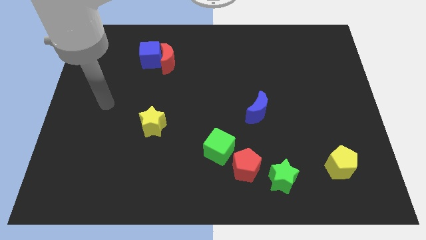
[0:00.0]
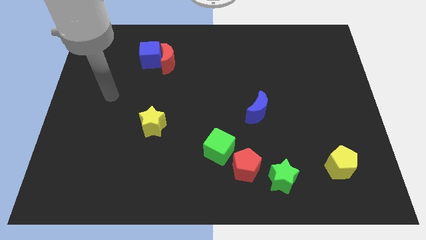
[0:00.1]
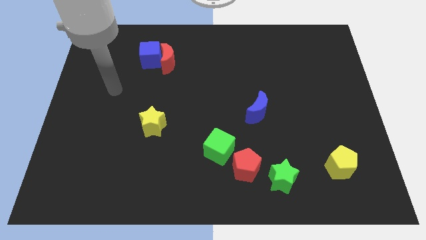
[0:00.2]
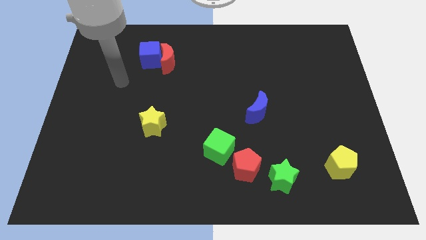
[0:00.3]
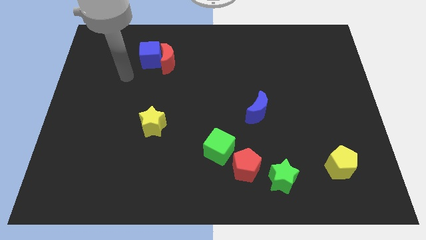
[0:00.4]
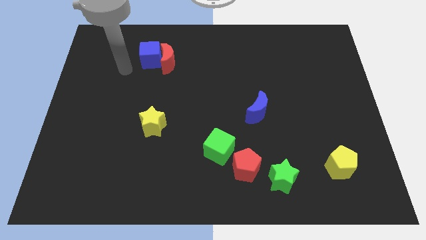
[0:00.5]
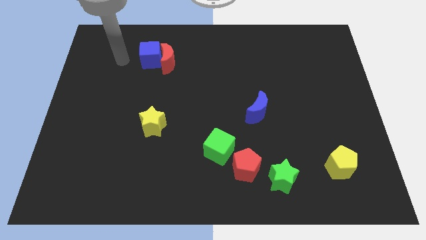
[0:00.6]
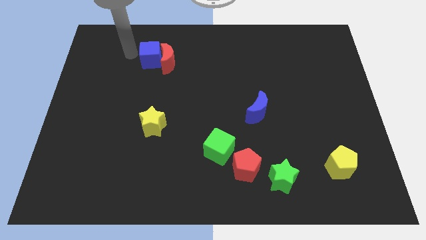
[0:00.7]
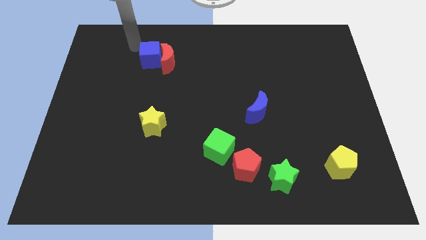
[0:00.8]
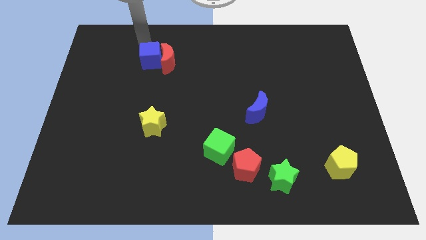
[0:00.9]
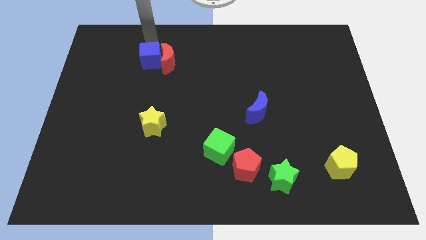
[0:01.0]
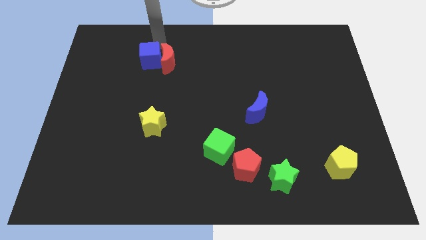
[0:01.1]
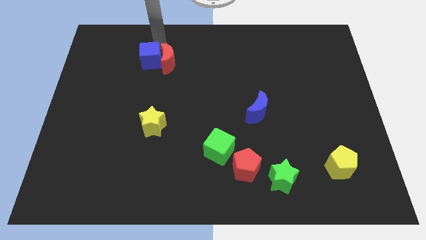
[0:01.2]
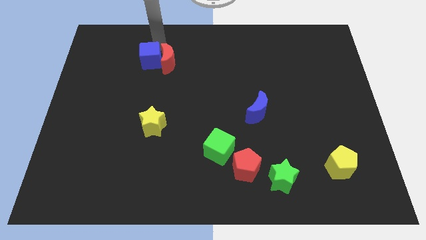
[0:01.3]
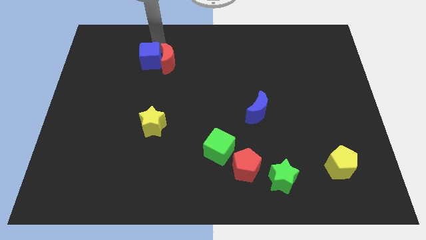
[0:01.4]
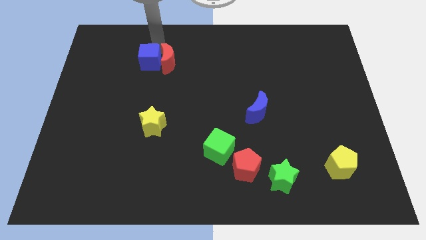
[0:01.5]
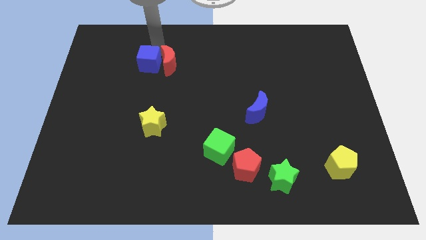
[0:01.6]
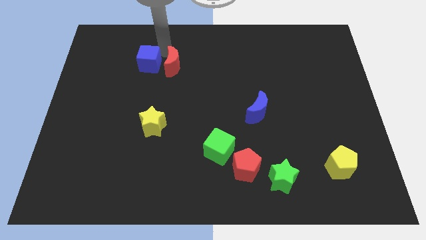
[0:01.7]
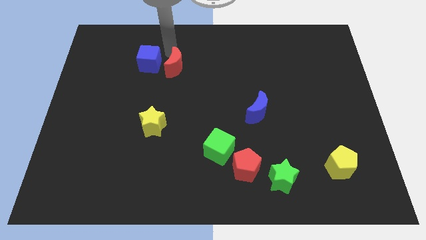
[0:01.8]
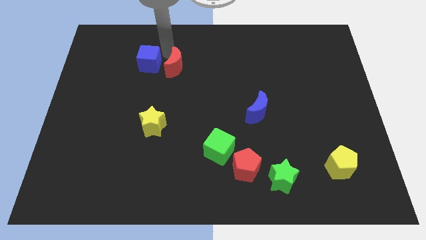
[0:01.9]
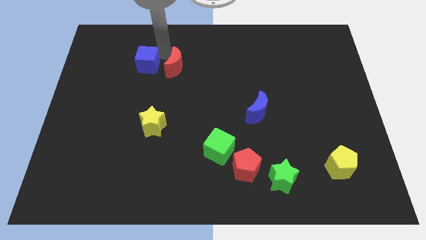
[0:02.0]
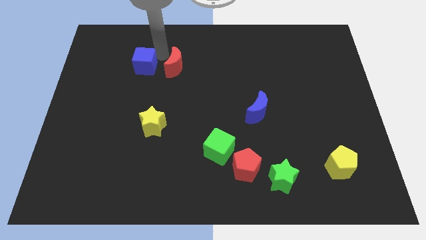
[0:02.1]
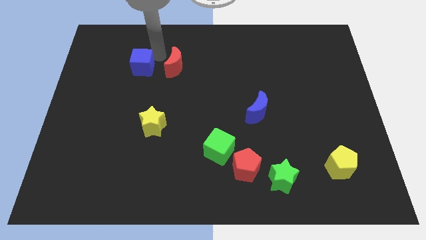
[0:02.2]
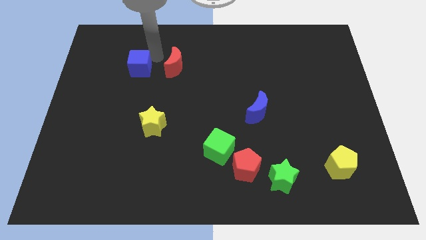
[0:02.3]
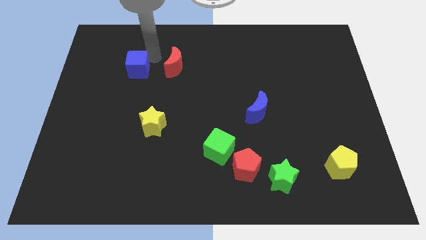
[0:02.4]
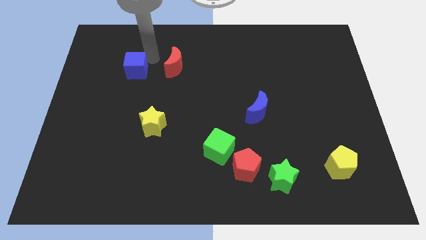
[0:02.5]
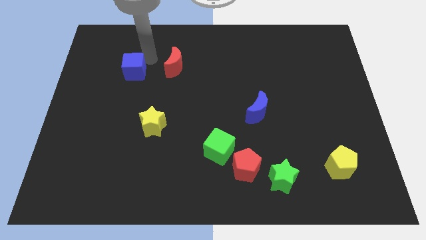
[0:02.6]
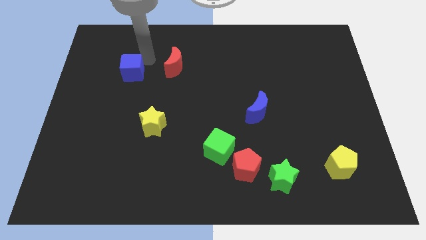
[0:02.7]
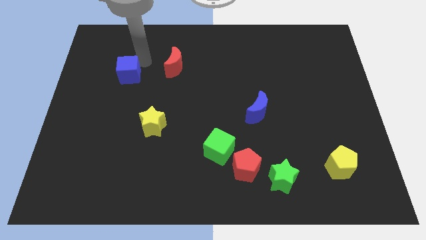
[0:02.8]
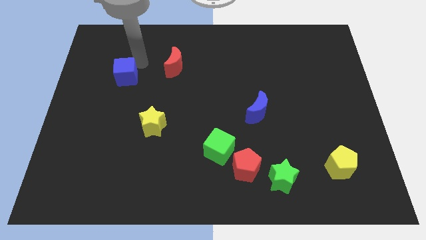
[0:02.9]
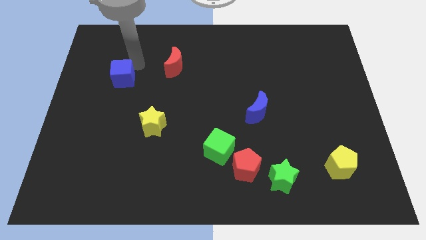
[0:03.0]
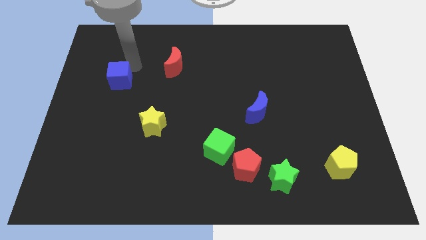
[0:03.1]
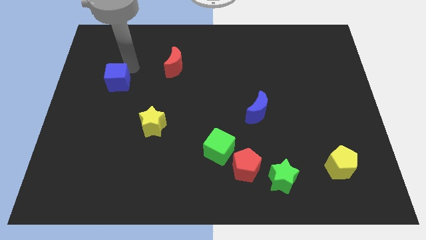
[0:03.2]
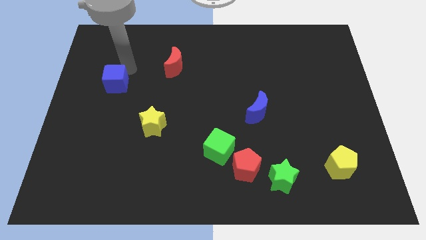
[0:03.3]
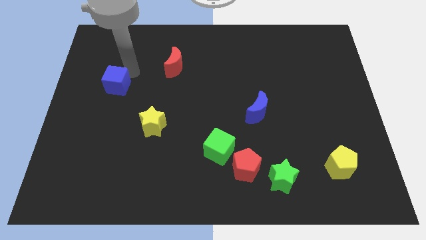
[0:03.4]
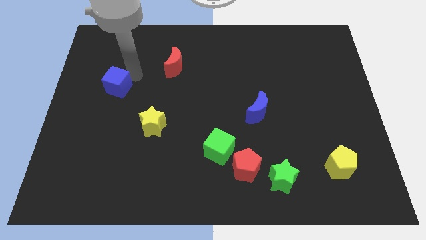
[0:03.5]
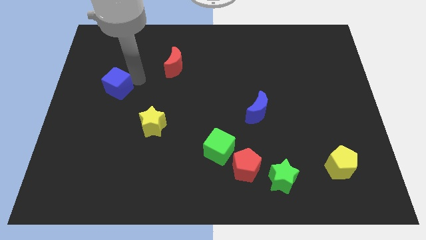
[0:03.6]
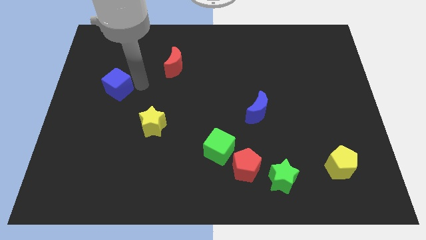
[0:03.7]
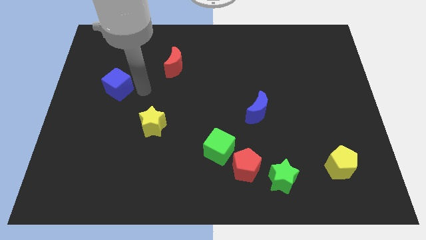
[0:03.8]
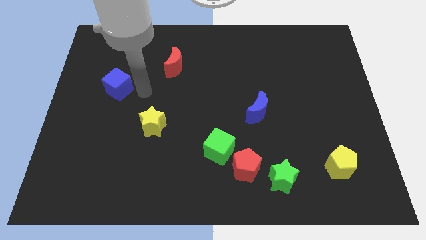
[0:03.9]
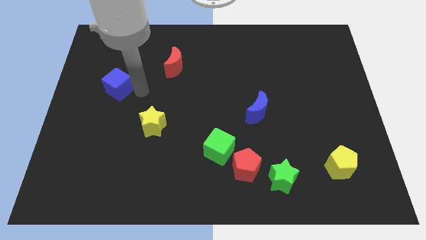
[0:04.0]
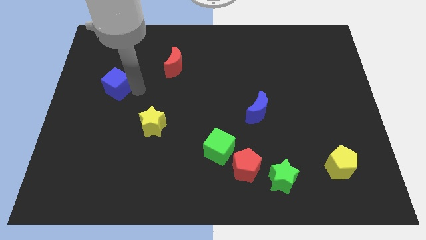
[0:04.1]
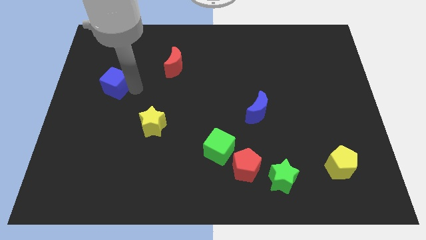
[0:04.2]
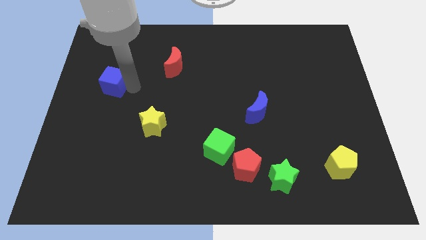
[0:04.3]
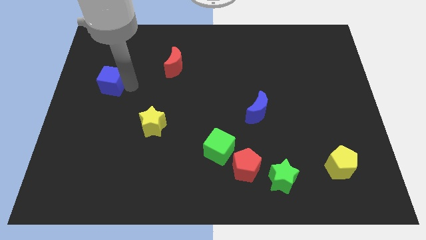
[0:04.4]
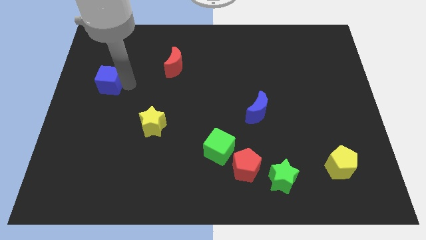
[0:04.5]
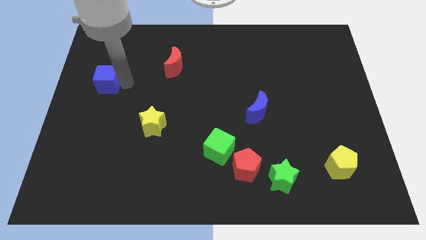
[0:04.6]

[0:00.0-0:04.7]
push the blue cube to the left side

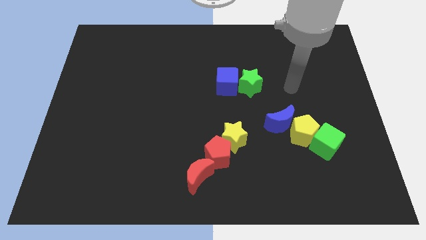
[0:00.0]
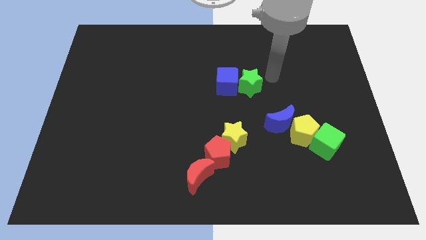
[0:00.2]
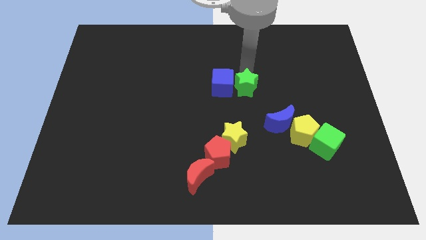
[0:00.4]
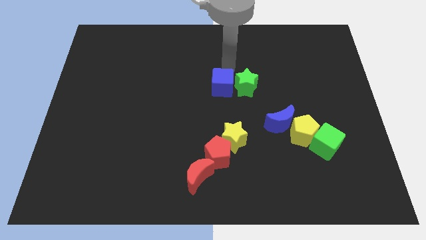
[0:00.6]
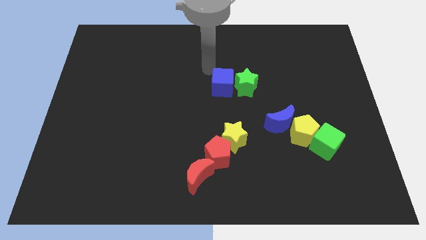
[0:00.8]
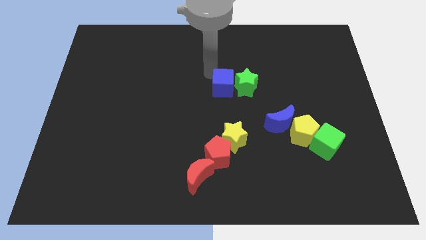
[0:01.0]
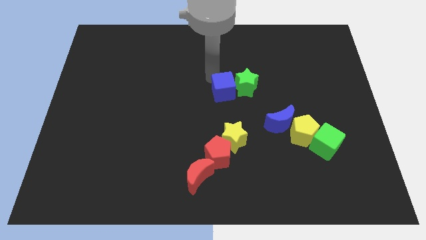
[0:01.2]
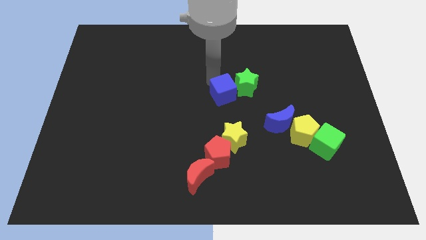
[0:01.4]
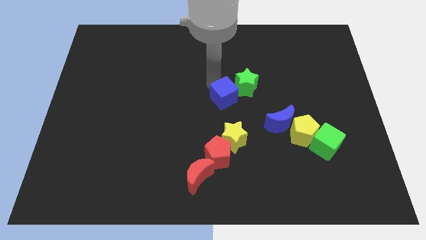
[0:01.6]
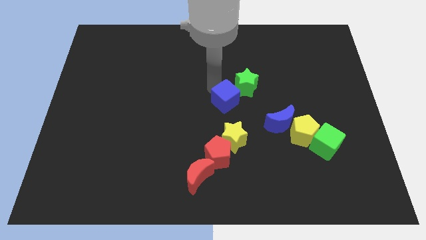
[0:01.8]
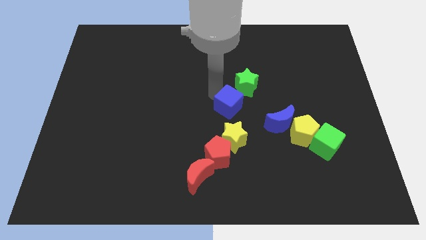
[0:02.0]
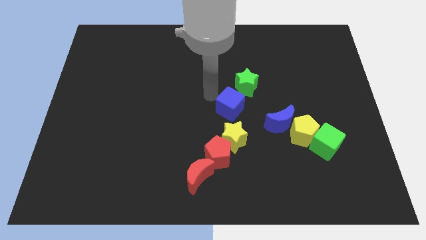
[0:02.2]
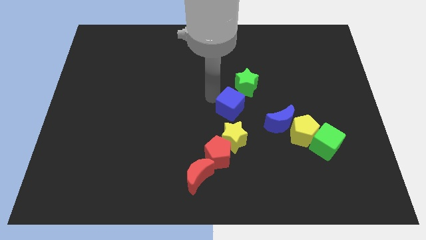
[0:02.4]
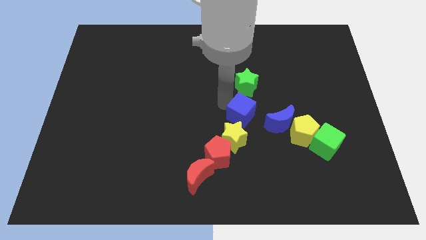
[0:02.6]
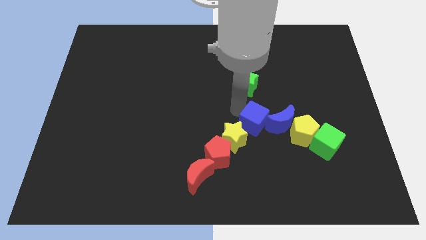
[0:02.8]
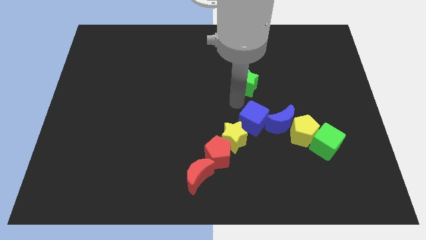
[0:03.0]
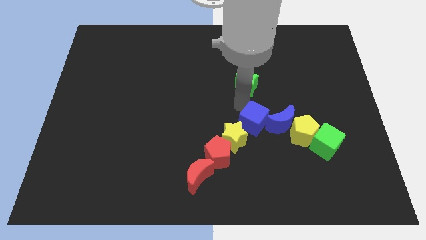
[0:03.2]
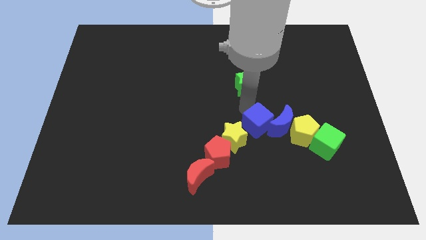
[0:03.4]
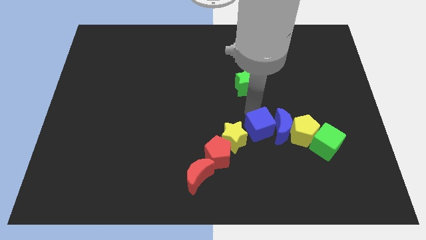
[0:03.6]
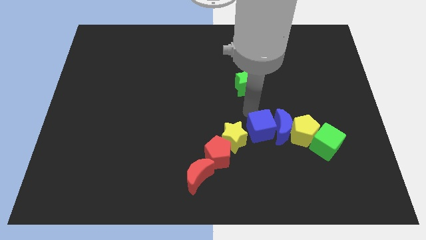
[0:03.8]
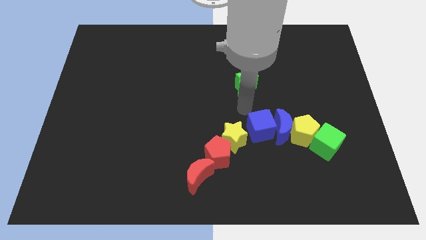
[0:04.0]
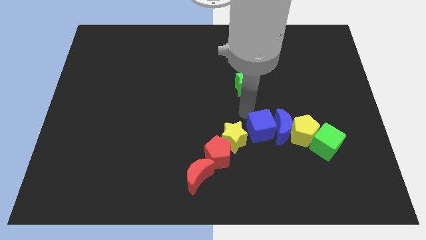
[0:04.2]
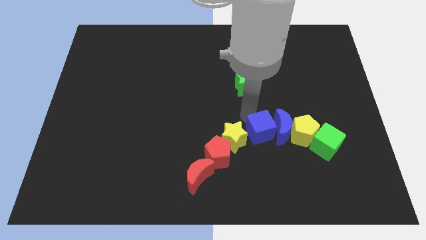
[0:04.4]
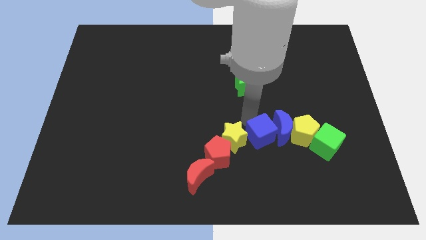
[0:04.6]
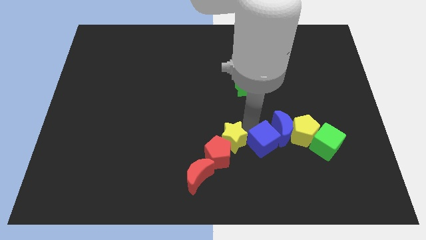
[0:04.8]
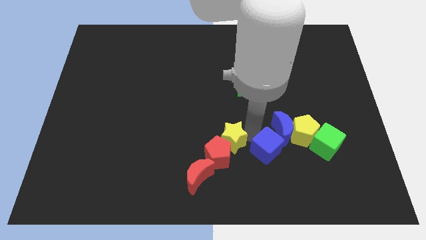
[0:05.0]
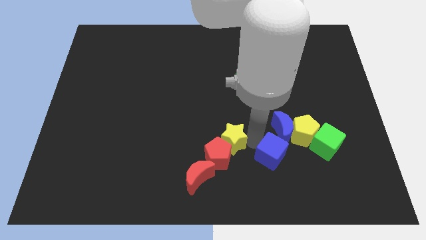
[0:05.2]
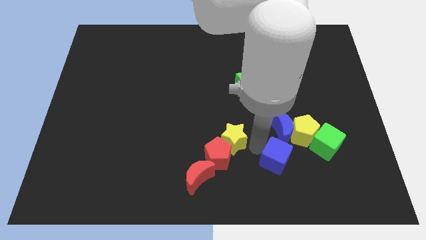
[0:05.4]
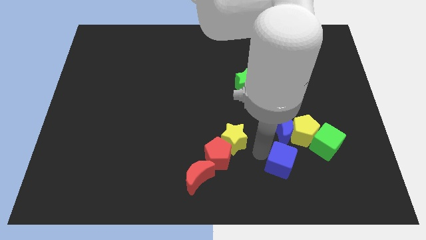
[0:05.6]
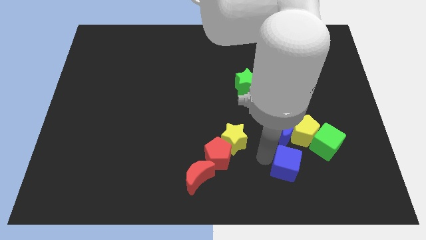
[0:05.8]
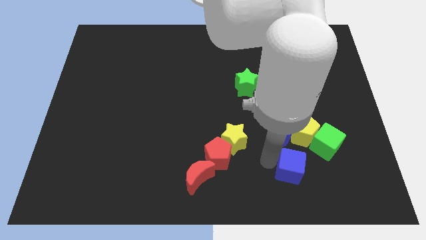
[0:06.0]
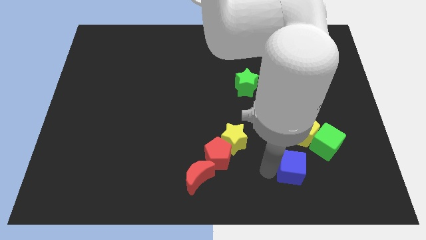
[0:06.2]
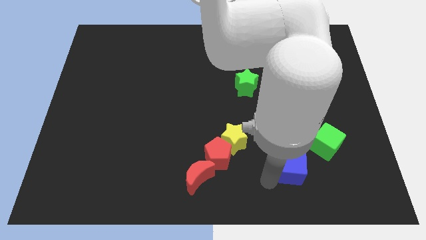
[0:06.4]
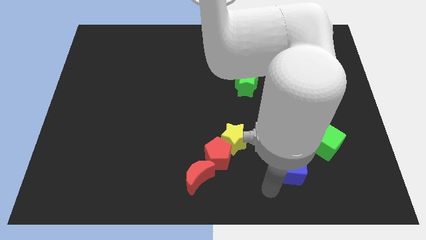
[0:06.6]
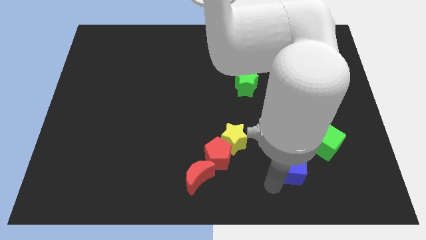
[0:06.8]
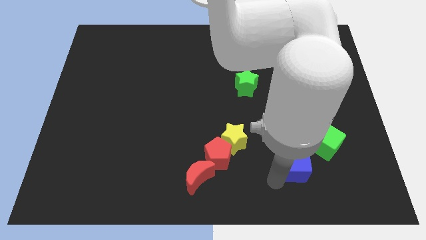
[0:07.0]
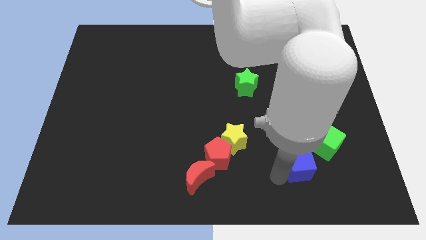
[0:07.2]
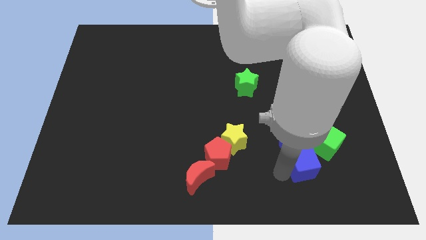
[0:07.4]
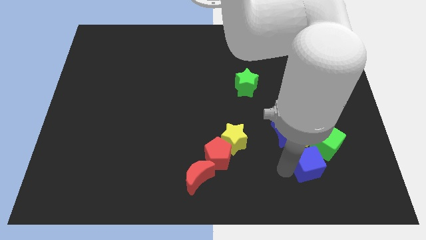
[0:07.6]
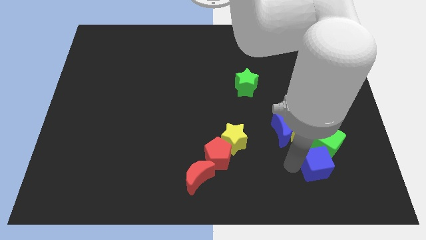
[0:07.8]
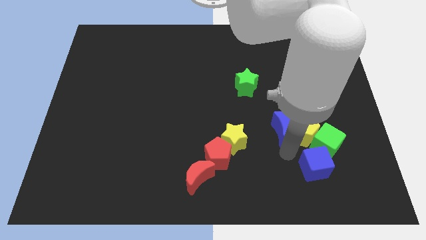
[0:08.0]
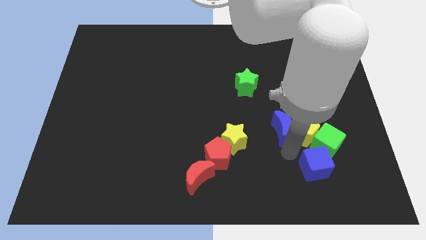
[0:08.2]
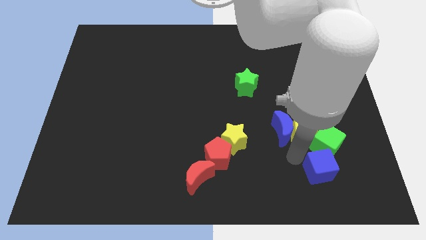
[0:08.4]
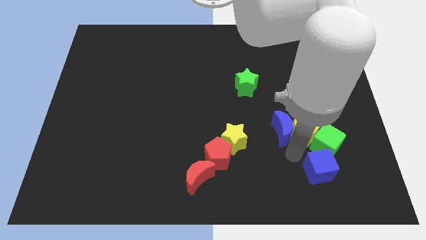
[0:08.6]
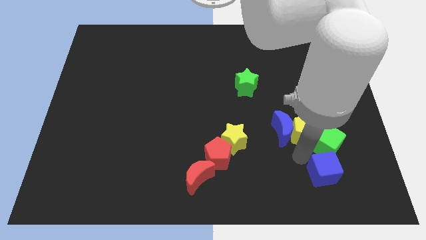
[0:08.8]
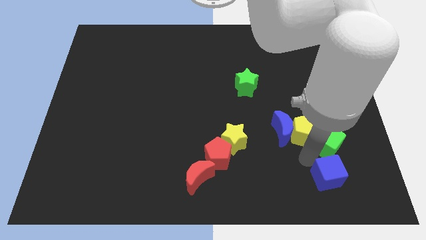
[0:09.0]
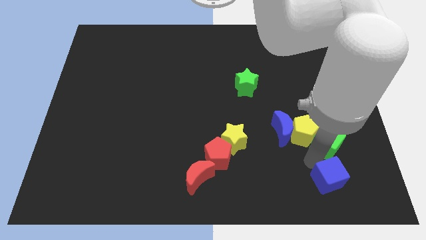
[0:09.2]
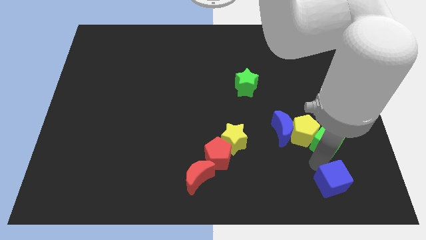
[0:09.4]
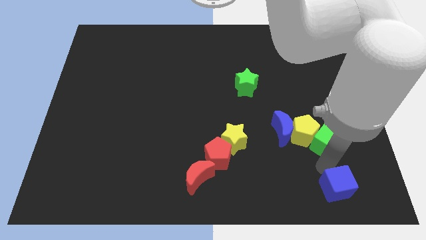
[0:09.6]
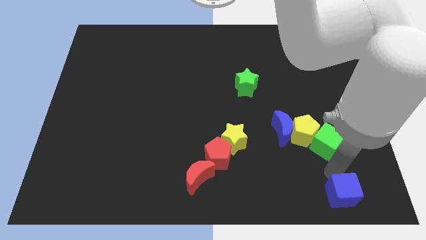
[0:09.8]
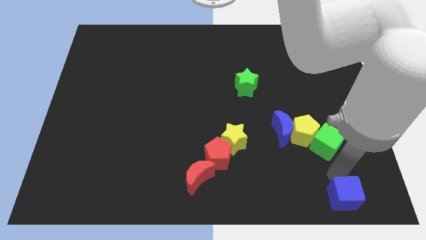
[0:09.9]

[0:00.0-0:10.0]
push the blue cube to the bottom right of the board
